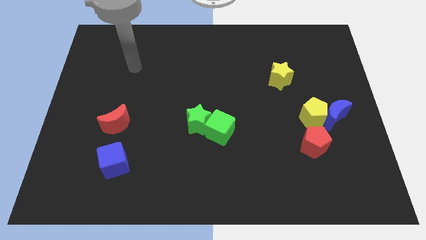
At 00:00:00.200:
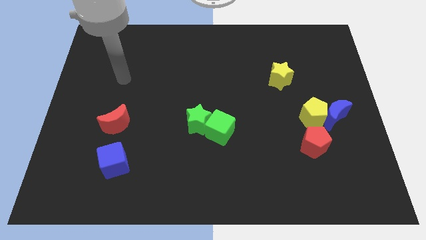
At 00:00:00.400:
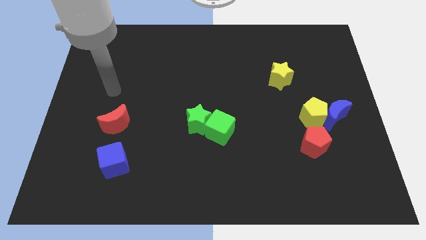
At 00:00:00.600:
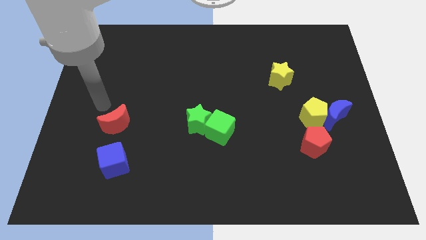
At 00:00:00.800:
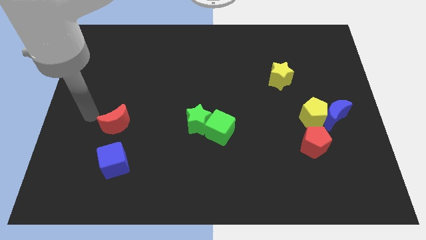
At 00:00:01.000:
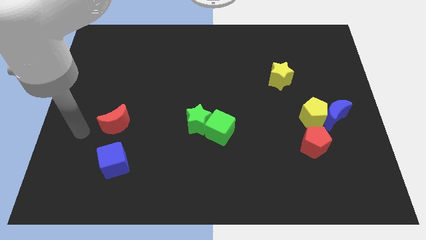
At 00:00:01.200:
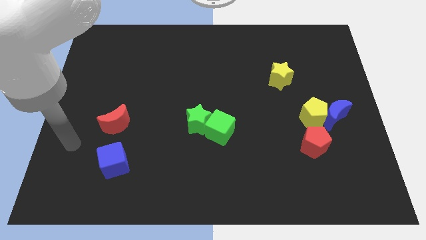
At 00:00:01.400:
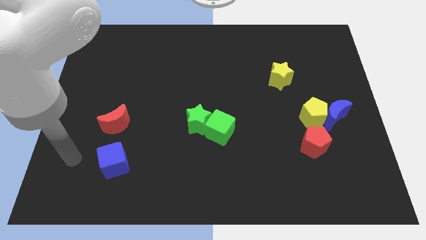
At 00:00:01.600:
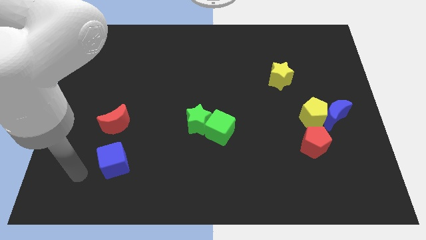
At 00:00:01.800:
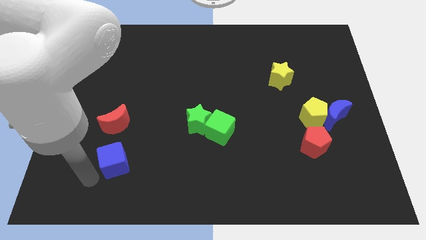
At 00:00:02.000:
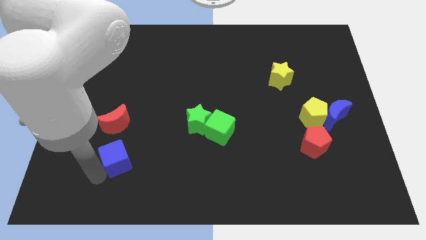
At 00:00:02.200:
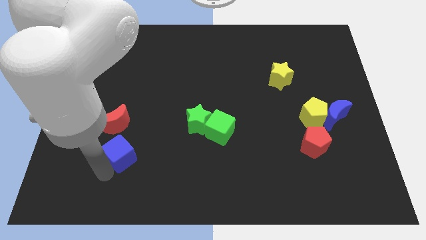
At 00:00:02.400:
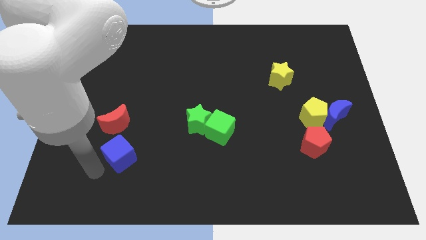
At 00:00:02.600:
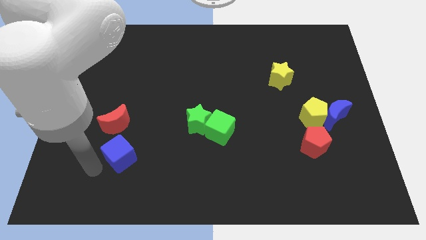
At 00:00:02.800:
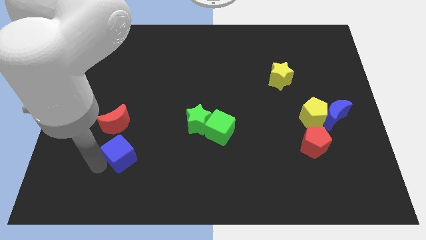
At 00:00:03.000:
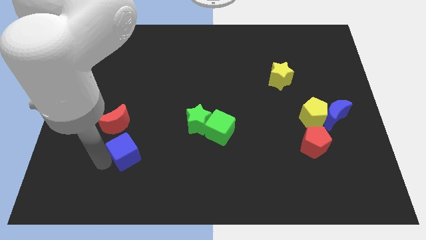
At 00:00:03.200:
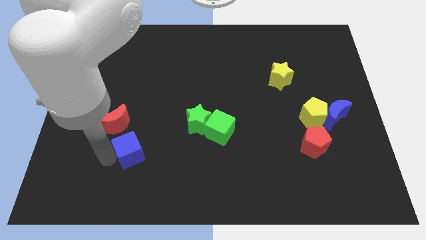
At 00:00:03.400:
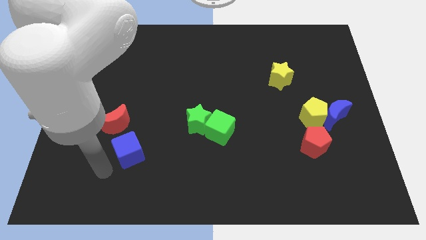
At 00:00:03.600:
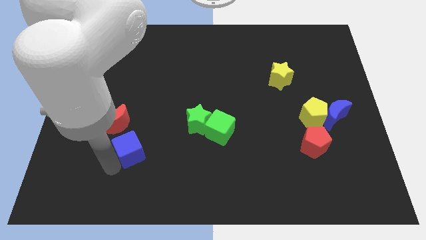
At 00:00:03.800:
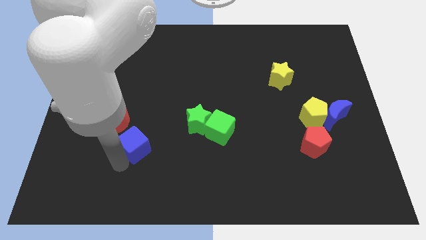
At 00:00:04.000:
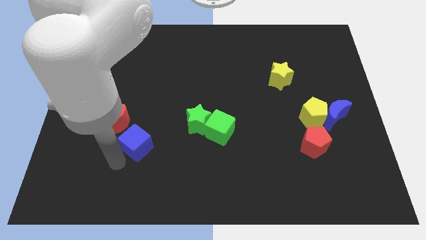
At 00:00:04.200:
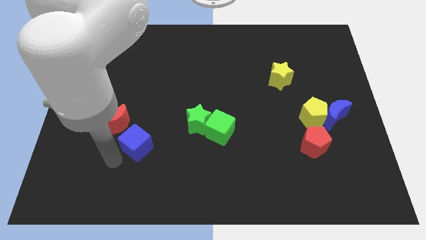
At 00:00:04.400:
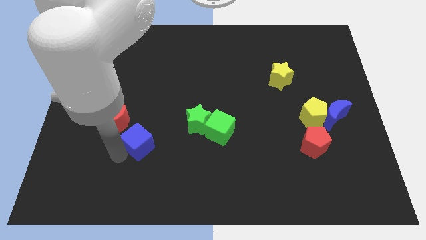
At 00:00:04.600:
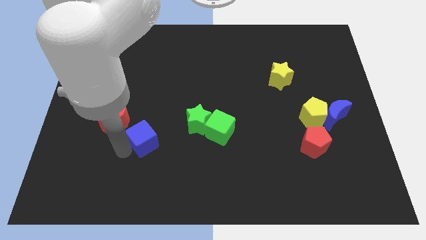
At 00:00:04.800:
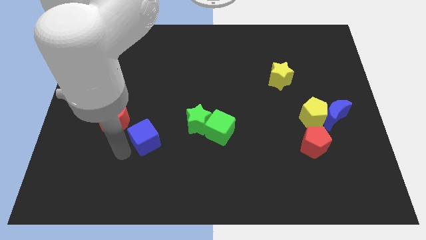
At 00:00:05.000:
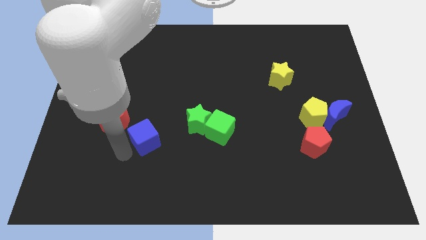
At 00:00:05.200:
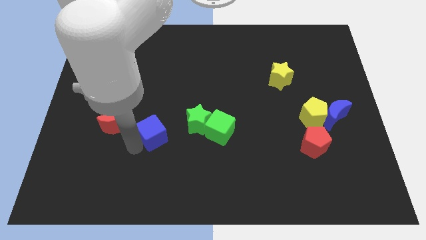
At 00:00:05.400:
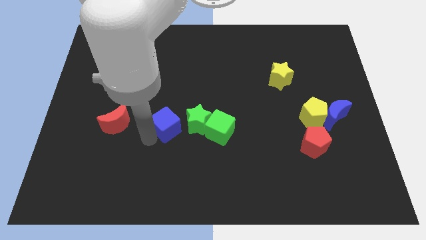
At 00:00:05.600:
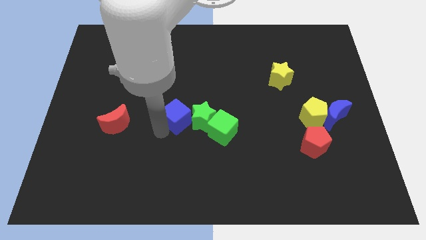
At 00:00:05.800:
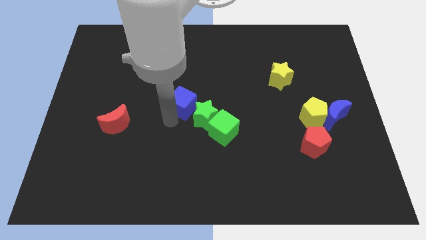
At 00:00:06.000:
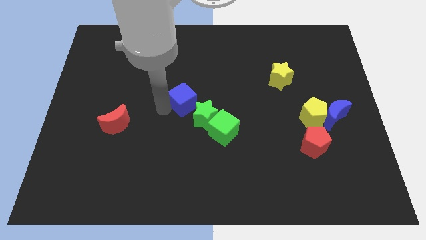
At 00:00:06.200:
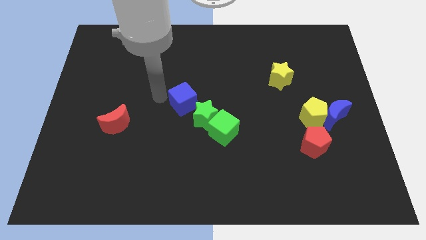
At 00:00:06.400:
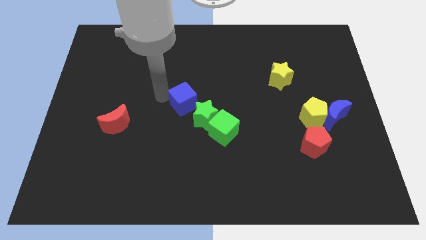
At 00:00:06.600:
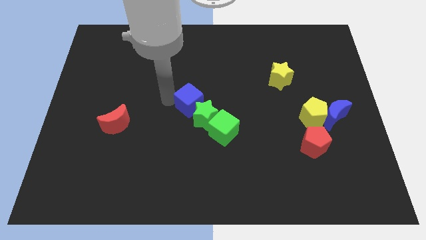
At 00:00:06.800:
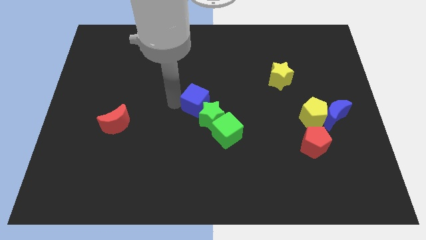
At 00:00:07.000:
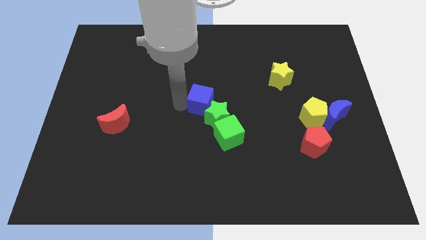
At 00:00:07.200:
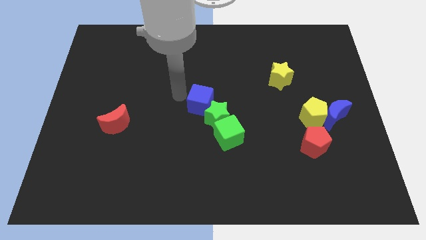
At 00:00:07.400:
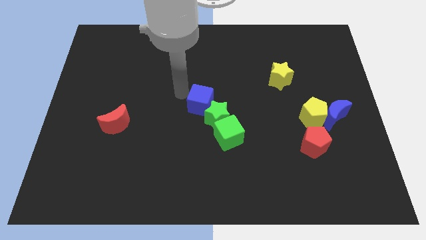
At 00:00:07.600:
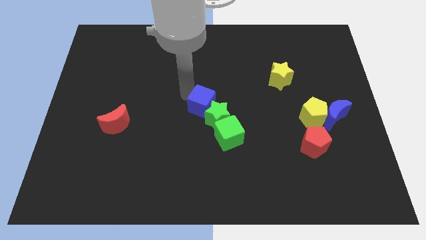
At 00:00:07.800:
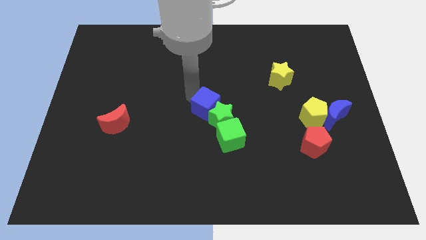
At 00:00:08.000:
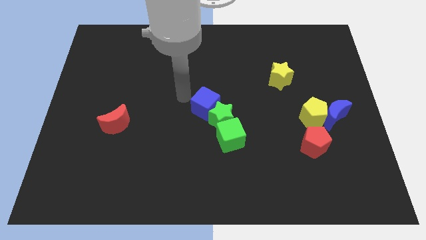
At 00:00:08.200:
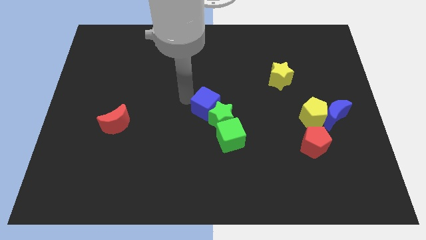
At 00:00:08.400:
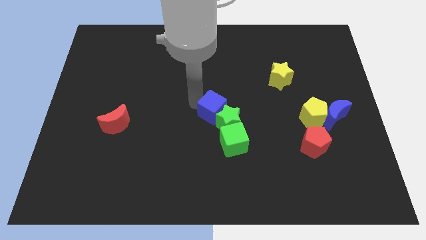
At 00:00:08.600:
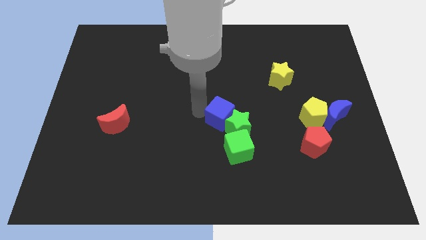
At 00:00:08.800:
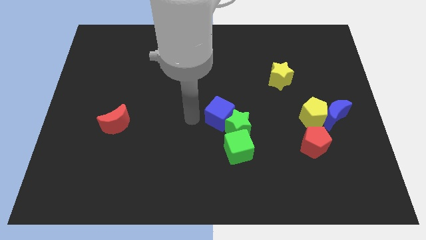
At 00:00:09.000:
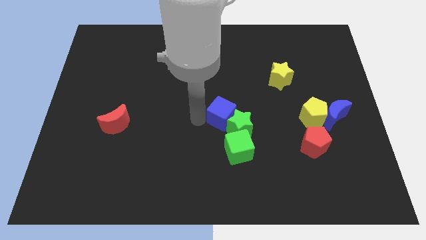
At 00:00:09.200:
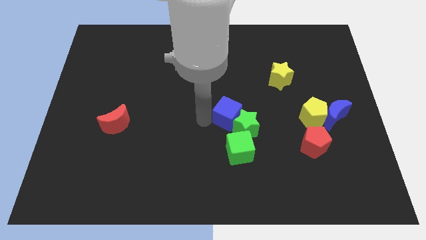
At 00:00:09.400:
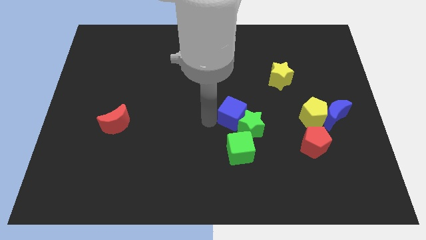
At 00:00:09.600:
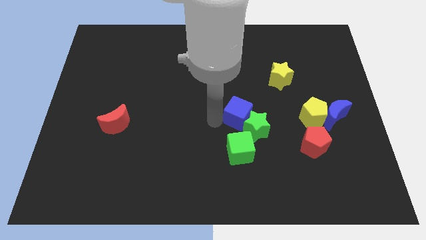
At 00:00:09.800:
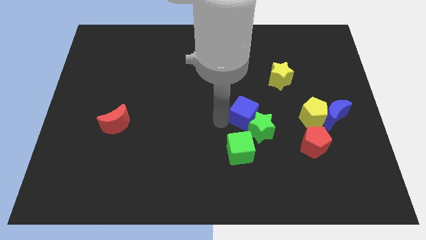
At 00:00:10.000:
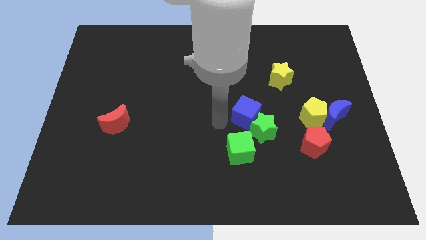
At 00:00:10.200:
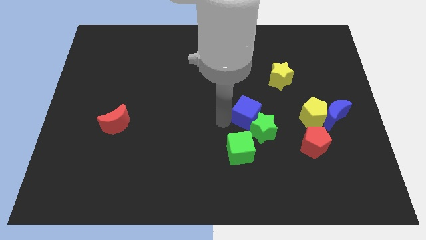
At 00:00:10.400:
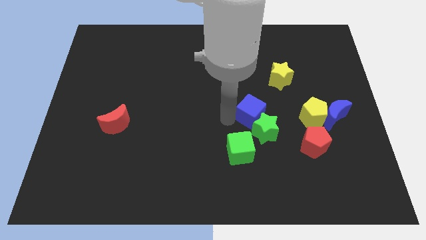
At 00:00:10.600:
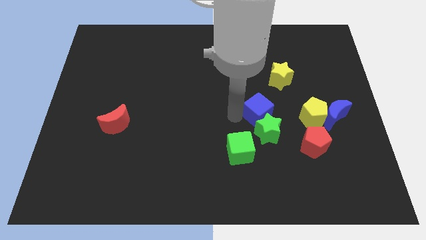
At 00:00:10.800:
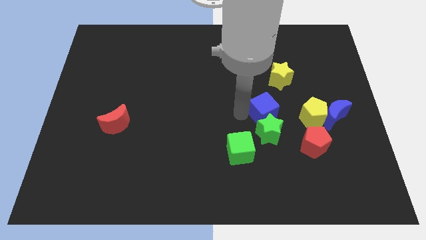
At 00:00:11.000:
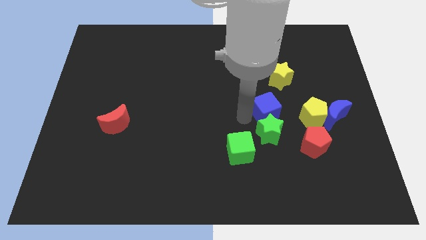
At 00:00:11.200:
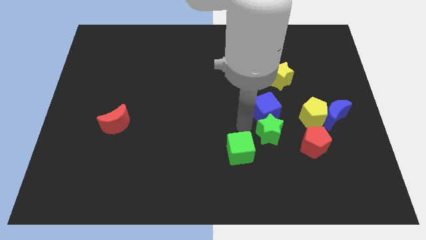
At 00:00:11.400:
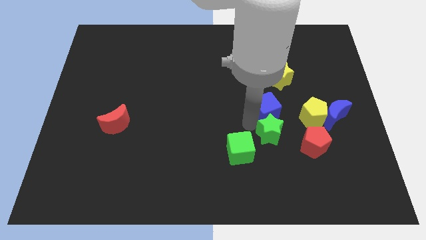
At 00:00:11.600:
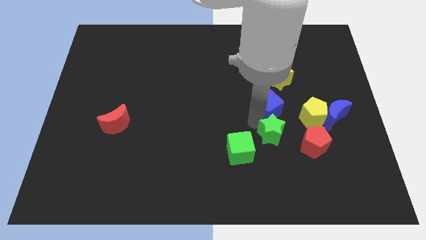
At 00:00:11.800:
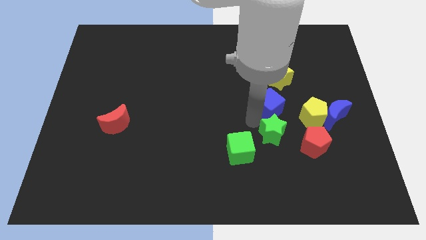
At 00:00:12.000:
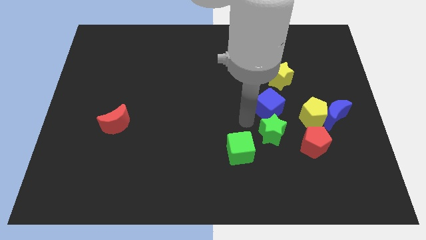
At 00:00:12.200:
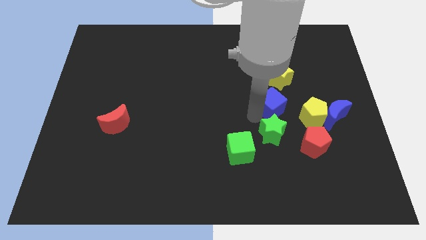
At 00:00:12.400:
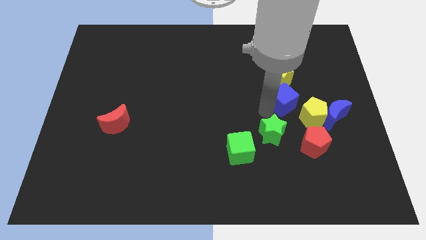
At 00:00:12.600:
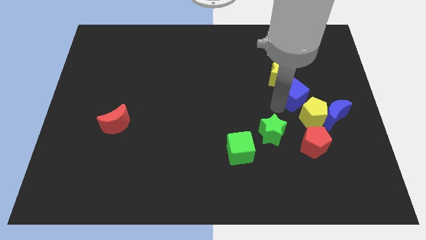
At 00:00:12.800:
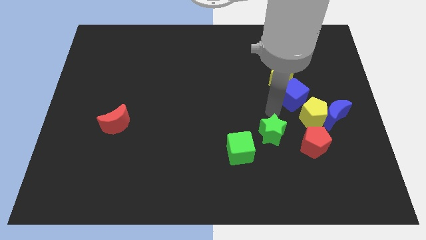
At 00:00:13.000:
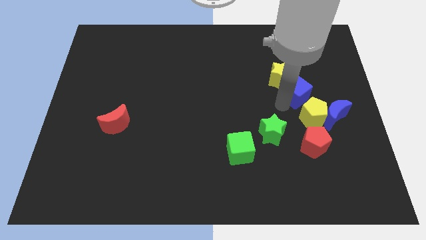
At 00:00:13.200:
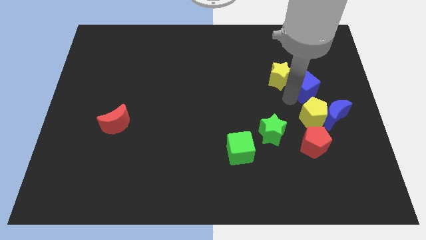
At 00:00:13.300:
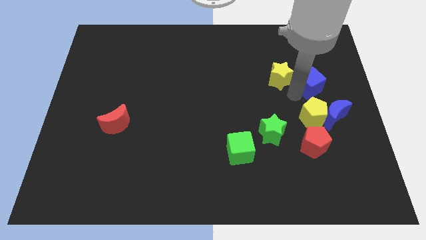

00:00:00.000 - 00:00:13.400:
put the blue cube to the top side of the blue moon
